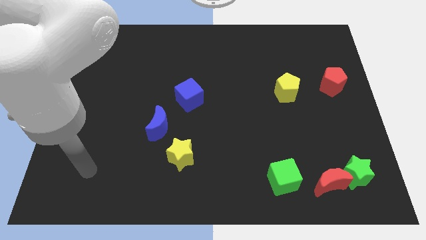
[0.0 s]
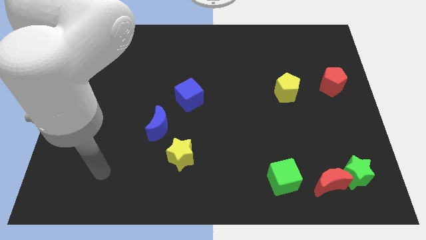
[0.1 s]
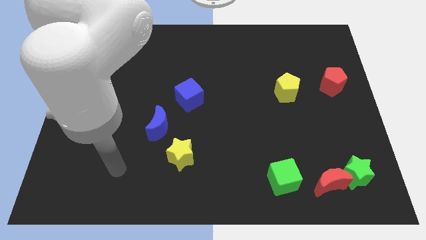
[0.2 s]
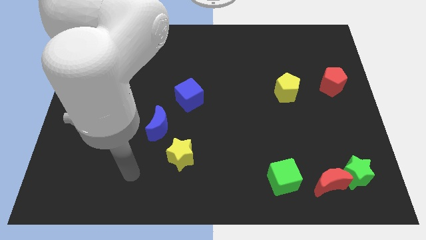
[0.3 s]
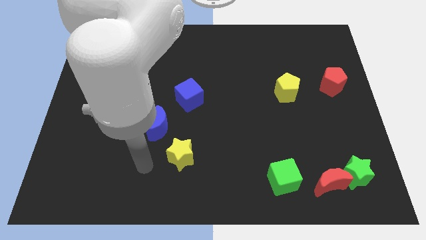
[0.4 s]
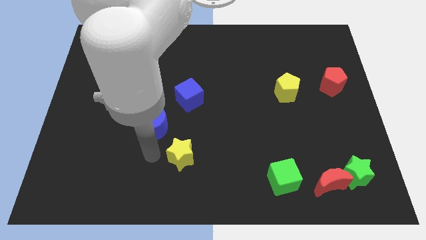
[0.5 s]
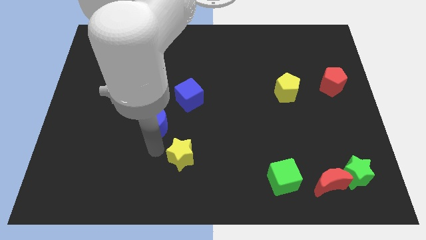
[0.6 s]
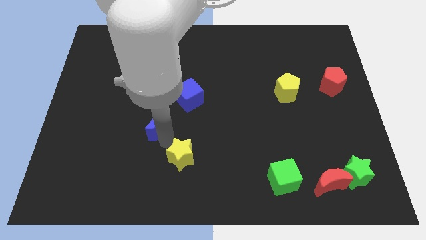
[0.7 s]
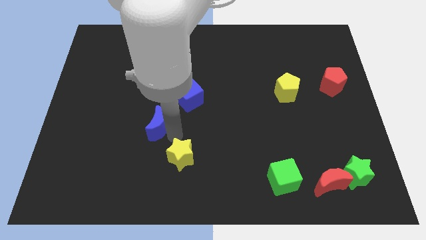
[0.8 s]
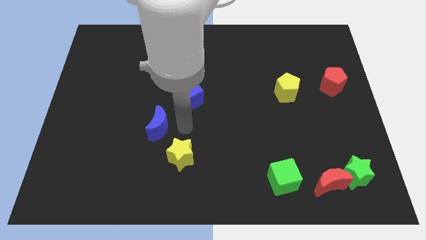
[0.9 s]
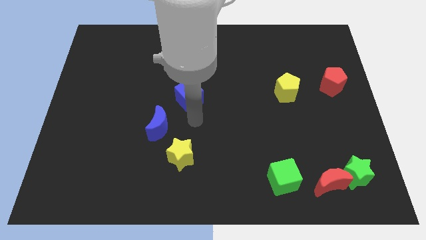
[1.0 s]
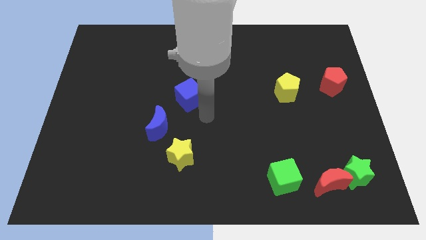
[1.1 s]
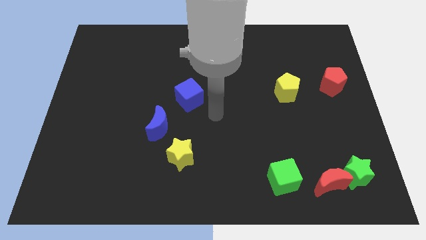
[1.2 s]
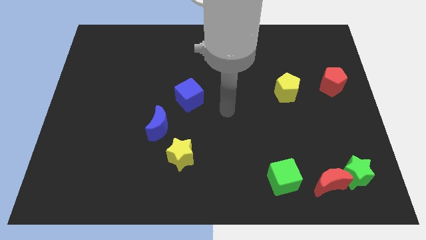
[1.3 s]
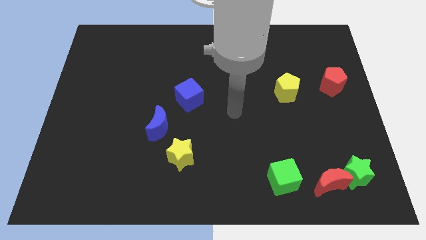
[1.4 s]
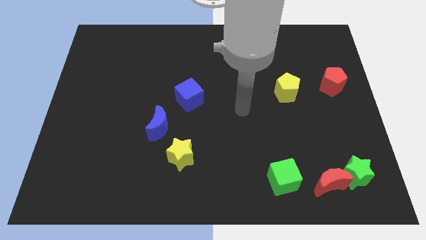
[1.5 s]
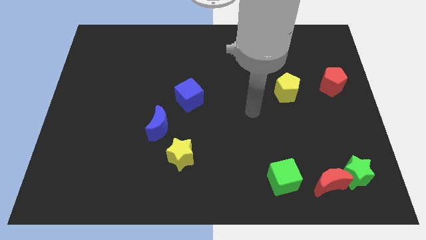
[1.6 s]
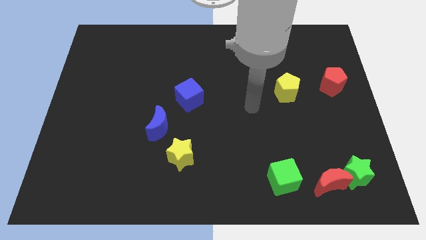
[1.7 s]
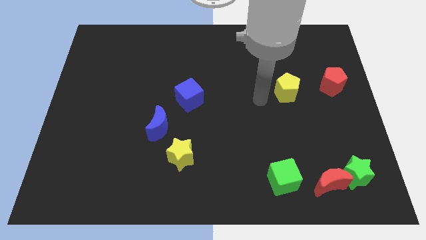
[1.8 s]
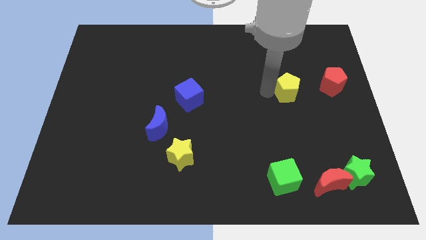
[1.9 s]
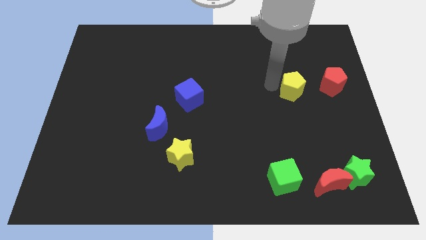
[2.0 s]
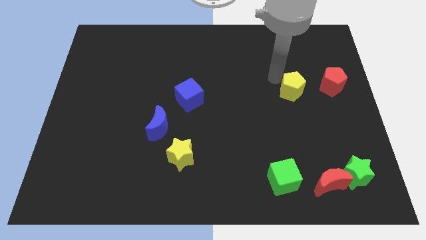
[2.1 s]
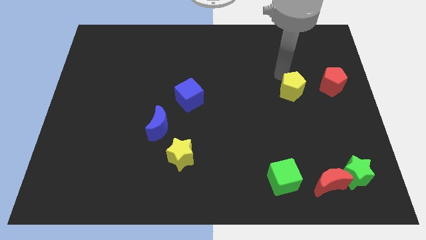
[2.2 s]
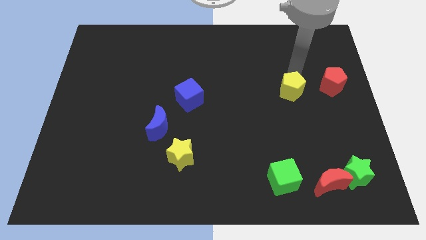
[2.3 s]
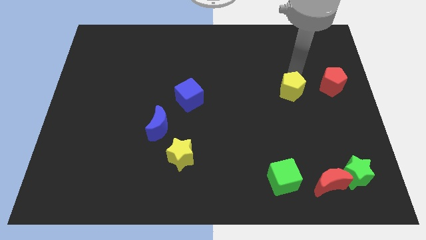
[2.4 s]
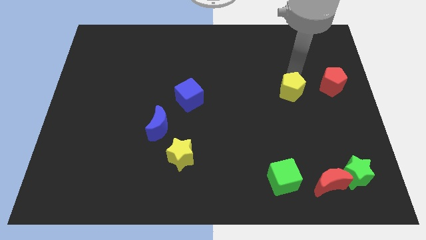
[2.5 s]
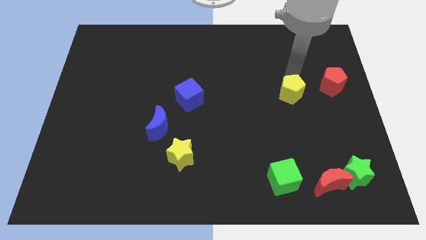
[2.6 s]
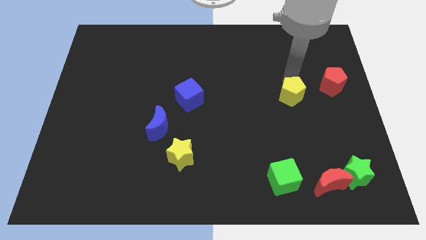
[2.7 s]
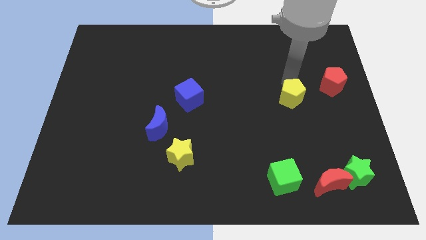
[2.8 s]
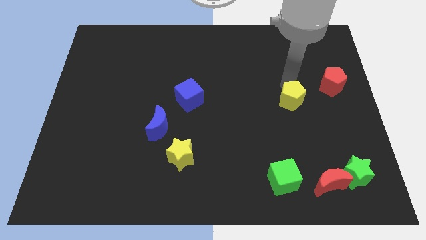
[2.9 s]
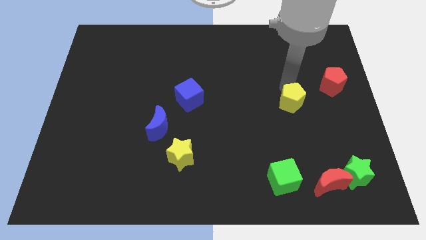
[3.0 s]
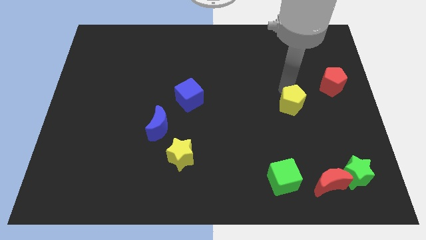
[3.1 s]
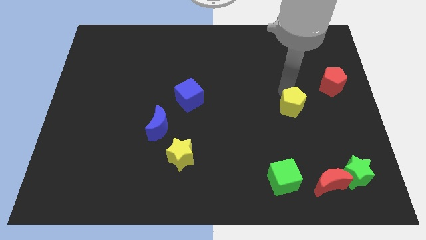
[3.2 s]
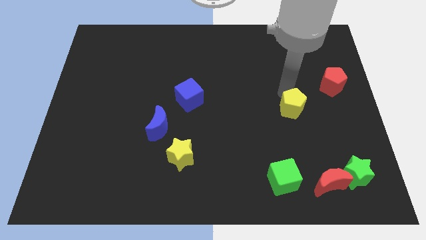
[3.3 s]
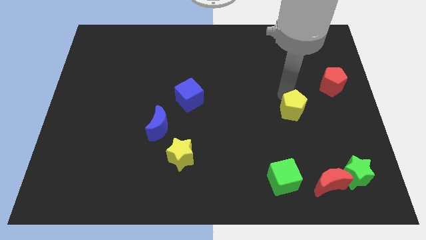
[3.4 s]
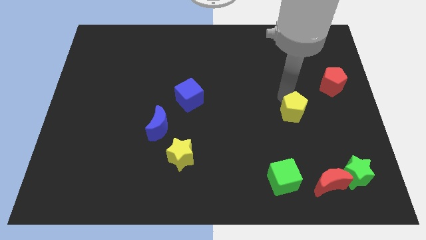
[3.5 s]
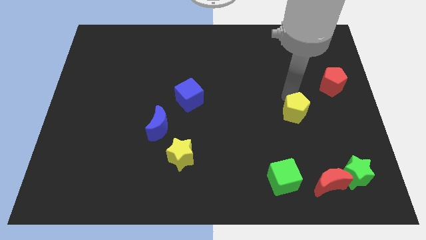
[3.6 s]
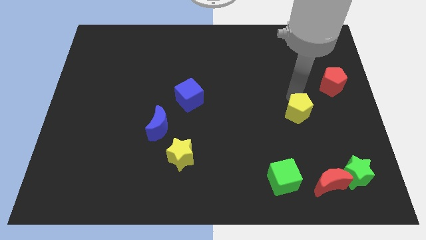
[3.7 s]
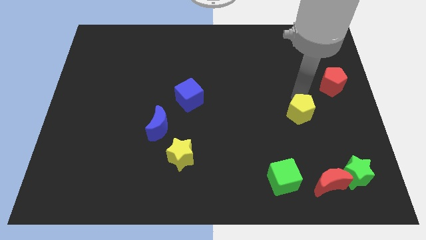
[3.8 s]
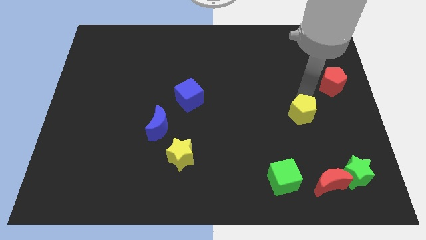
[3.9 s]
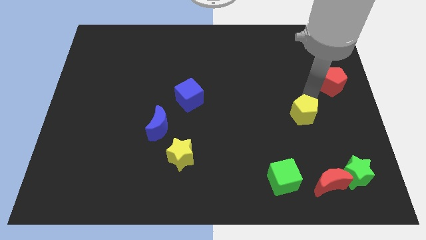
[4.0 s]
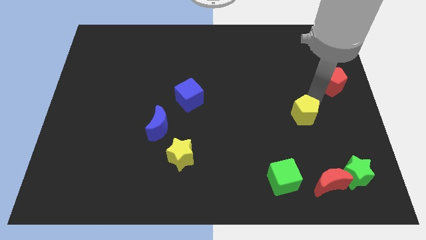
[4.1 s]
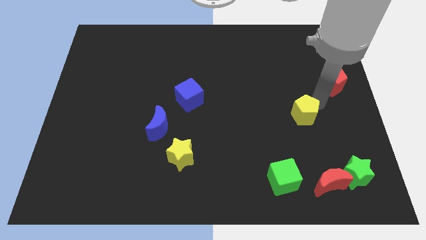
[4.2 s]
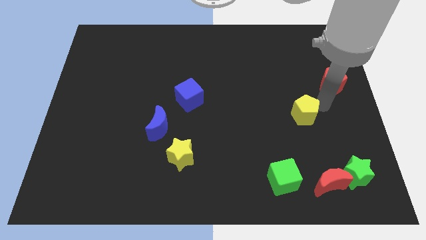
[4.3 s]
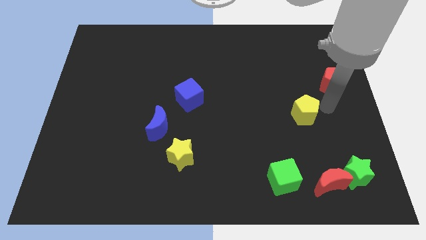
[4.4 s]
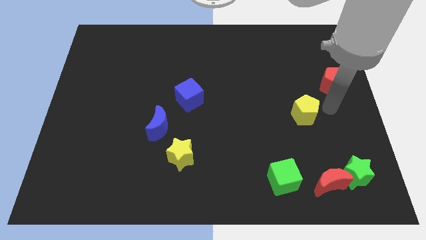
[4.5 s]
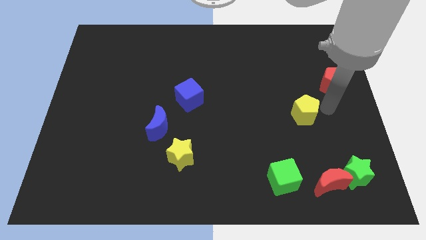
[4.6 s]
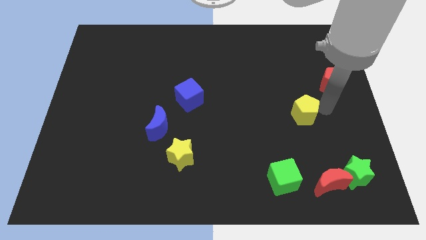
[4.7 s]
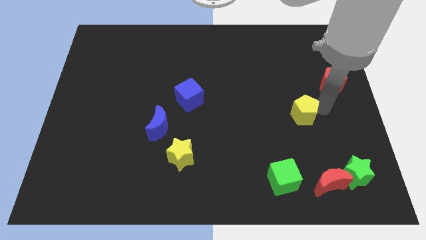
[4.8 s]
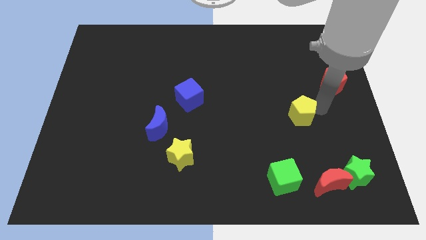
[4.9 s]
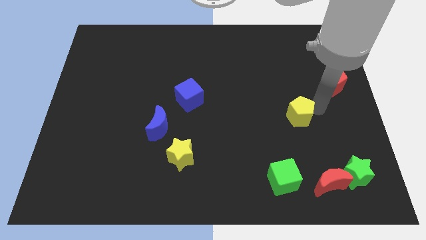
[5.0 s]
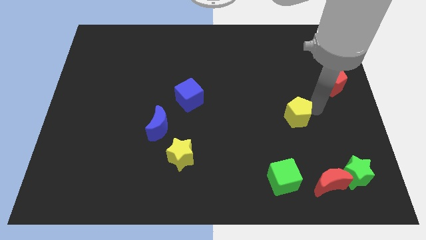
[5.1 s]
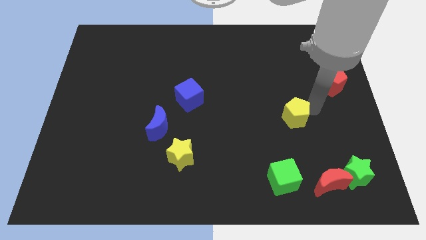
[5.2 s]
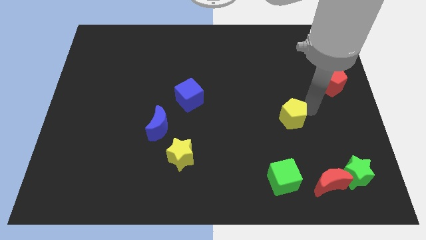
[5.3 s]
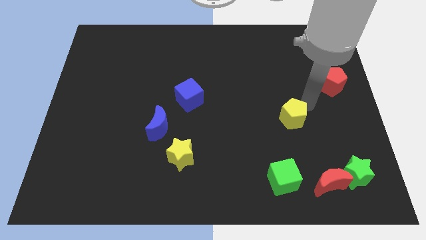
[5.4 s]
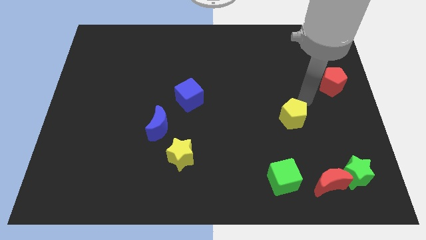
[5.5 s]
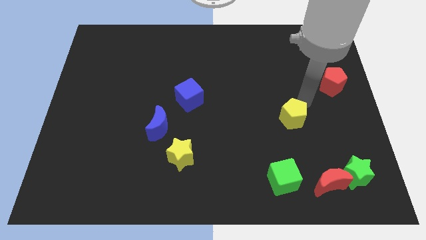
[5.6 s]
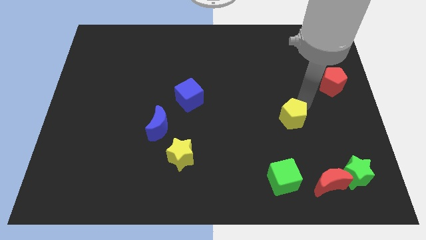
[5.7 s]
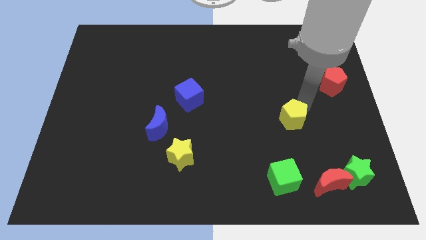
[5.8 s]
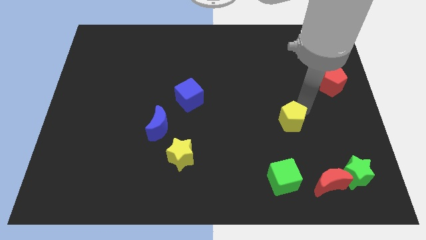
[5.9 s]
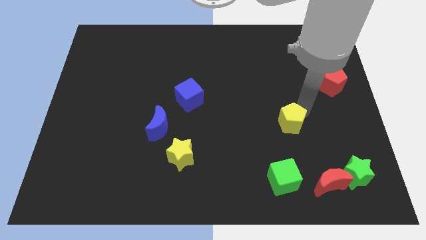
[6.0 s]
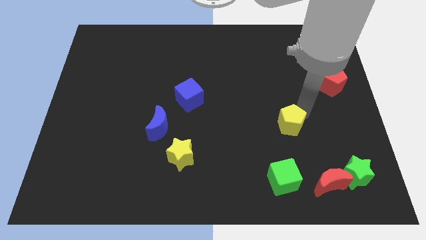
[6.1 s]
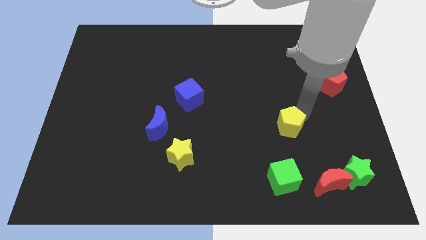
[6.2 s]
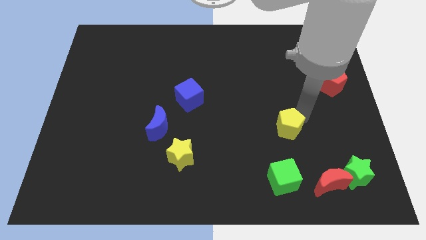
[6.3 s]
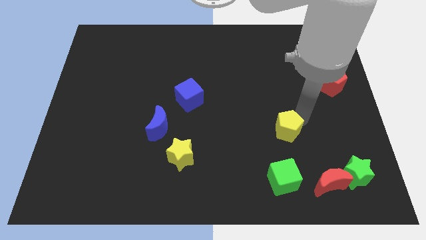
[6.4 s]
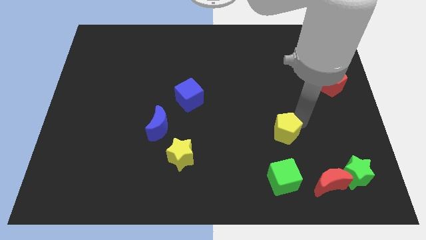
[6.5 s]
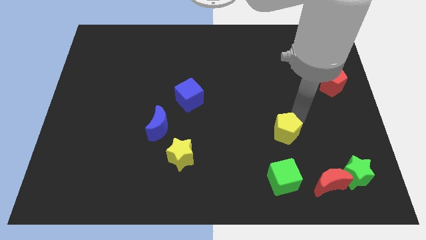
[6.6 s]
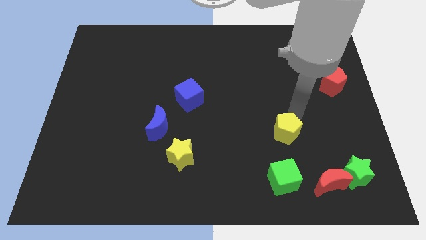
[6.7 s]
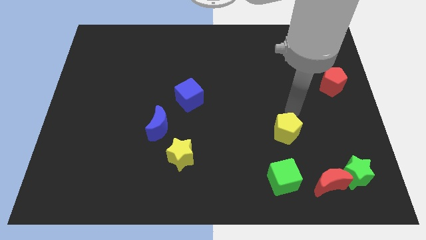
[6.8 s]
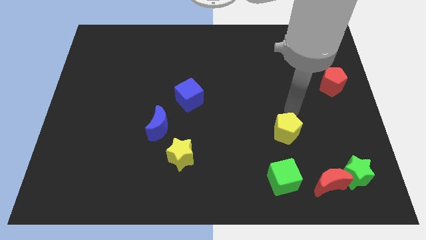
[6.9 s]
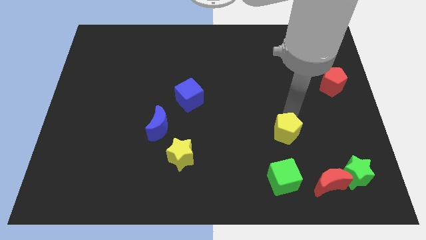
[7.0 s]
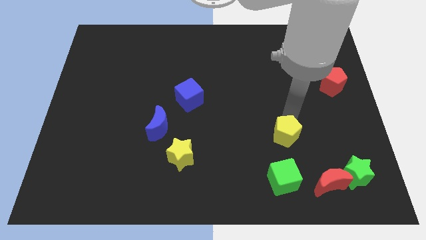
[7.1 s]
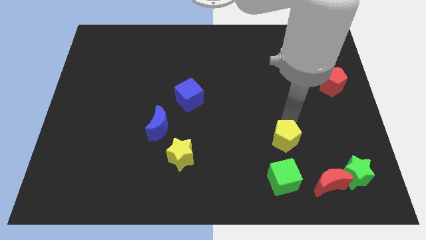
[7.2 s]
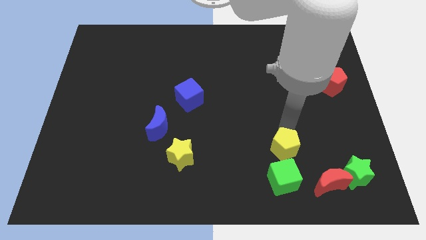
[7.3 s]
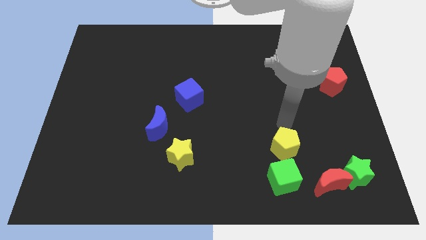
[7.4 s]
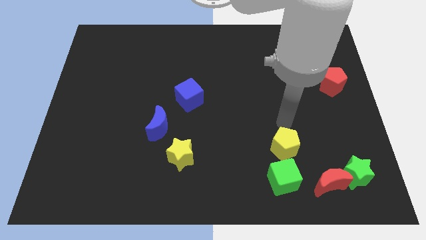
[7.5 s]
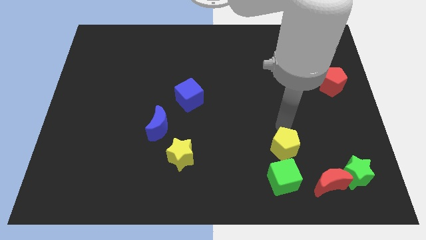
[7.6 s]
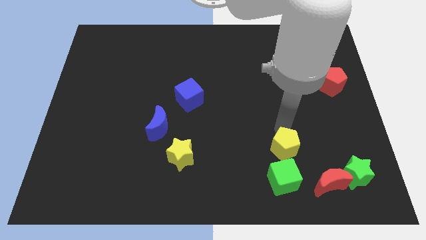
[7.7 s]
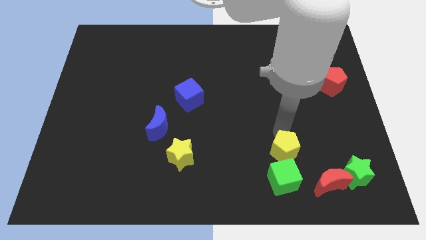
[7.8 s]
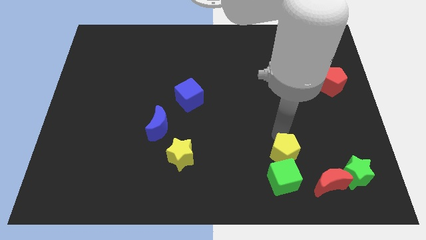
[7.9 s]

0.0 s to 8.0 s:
slide the yellow pentagon towards the green cube
